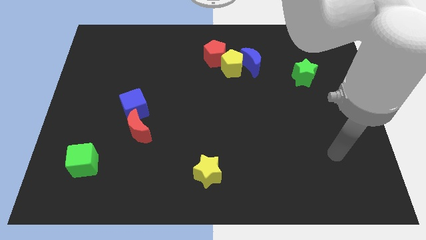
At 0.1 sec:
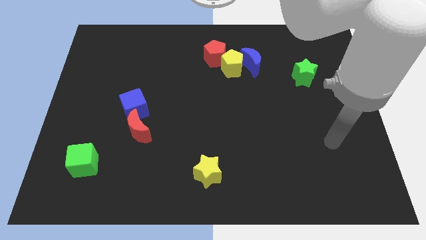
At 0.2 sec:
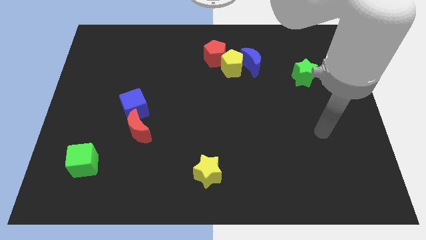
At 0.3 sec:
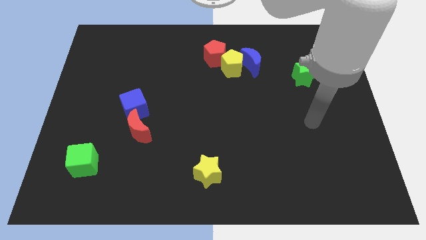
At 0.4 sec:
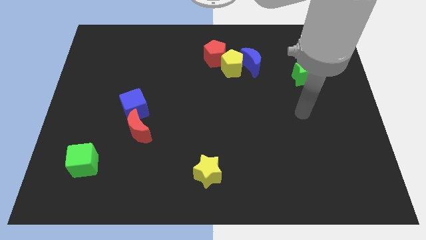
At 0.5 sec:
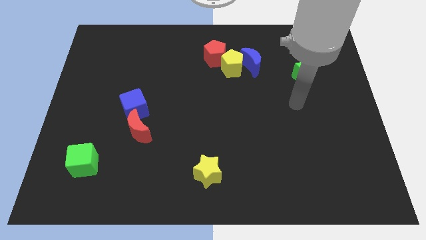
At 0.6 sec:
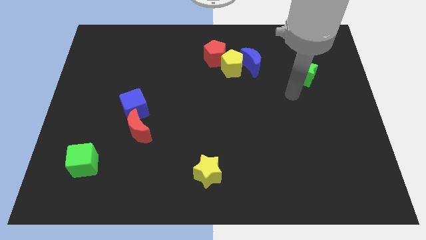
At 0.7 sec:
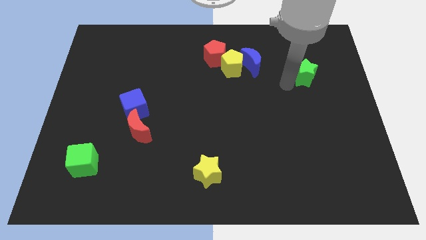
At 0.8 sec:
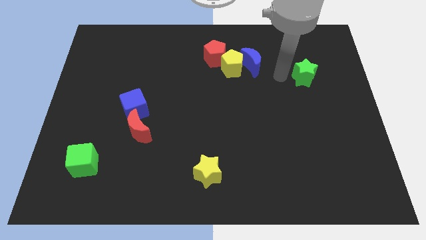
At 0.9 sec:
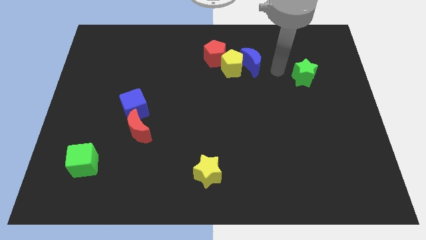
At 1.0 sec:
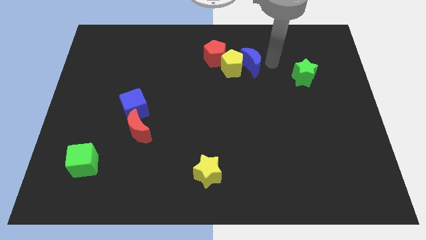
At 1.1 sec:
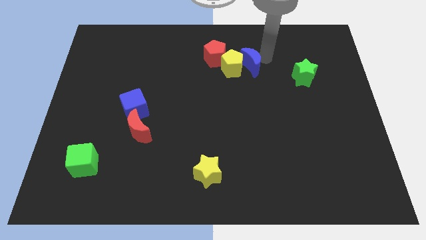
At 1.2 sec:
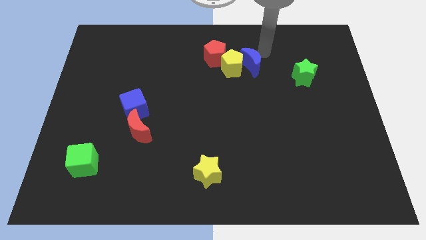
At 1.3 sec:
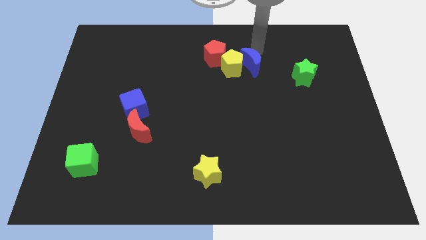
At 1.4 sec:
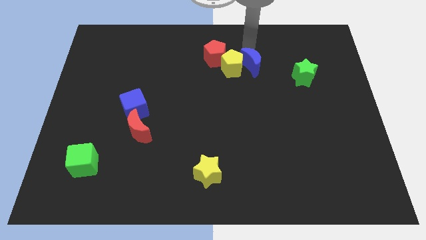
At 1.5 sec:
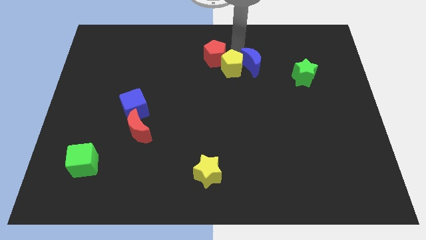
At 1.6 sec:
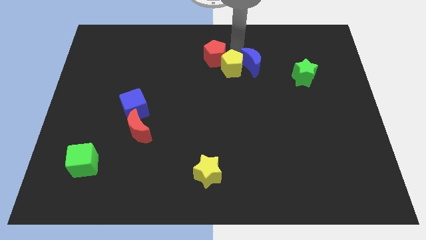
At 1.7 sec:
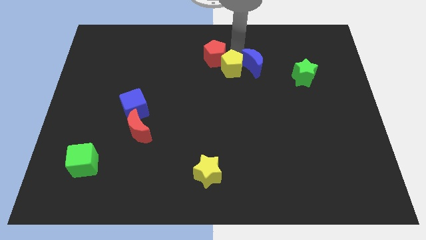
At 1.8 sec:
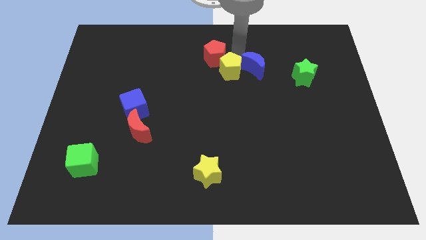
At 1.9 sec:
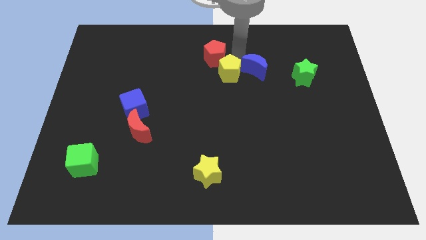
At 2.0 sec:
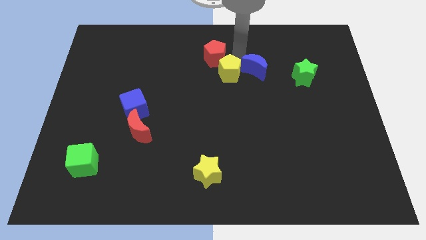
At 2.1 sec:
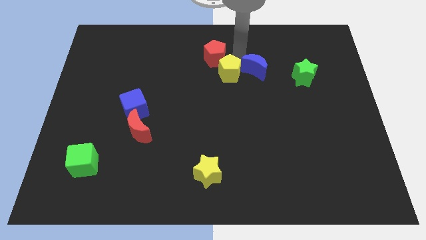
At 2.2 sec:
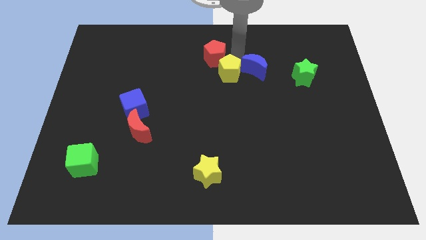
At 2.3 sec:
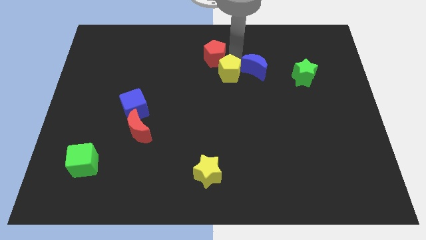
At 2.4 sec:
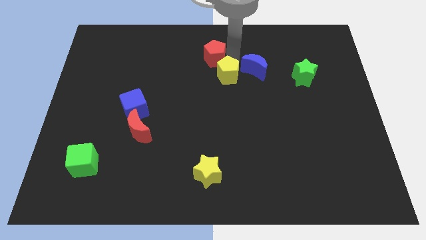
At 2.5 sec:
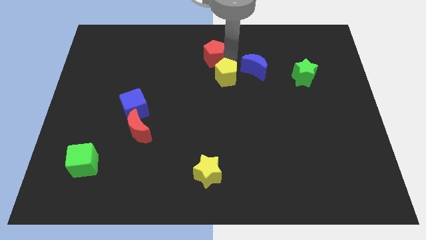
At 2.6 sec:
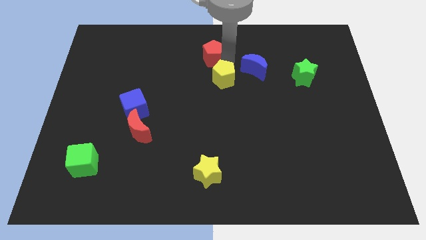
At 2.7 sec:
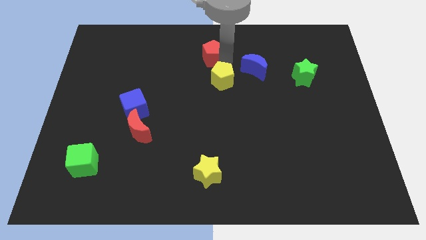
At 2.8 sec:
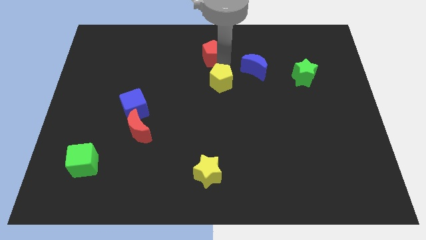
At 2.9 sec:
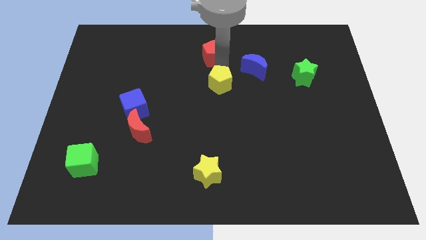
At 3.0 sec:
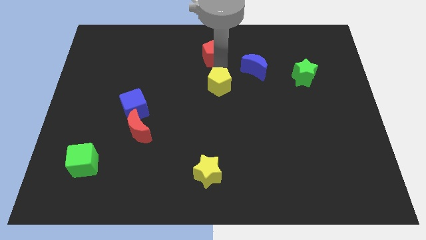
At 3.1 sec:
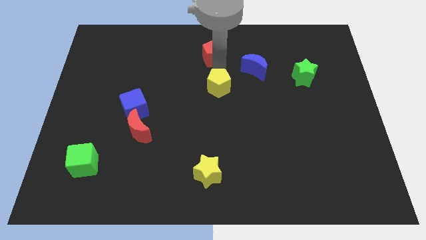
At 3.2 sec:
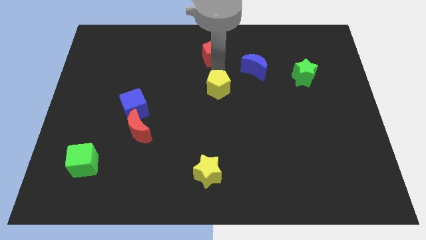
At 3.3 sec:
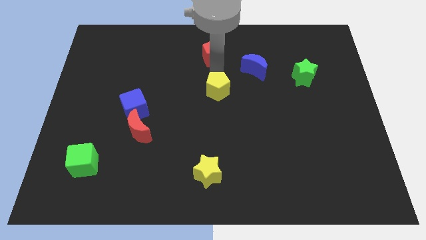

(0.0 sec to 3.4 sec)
separate the yellow pentagon from the blue moon and red pentagon

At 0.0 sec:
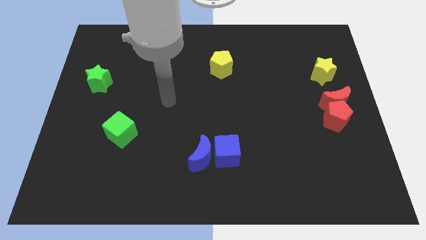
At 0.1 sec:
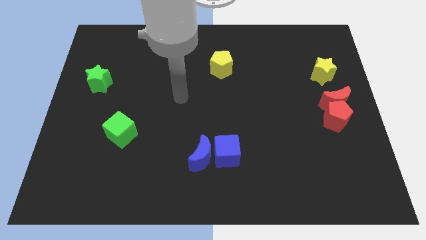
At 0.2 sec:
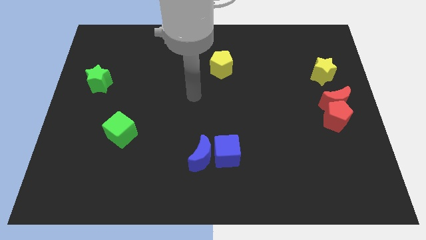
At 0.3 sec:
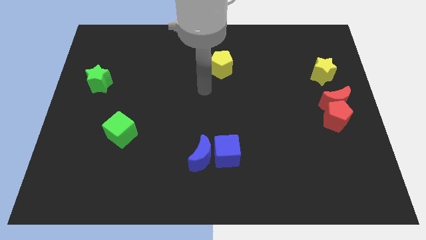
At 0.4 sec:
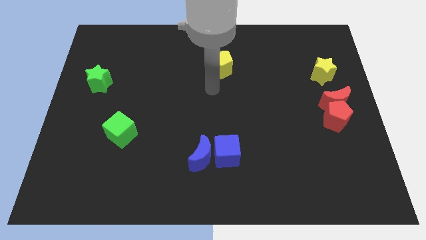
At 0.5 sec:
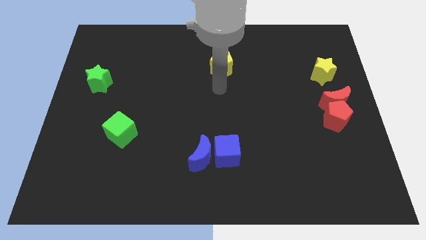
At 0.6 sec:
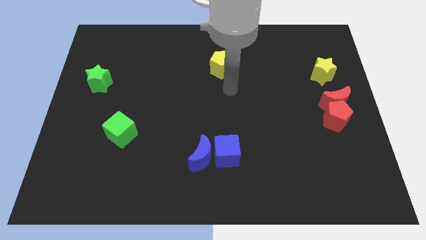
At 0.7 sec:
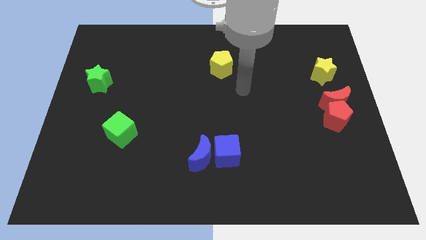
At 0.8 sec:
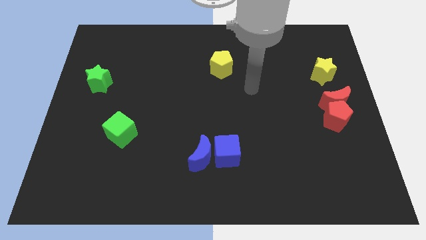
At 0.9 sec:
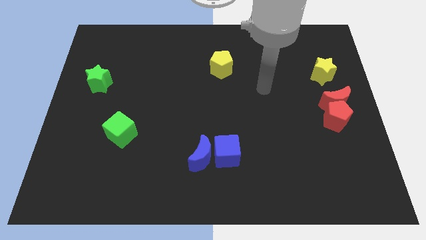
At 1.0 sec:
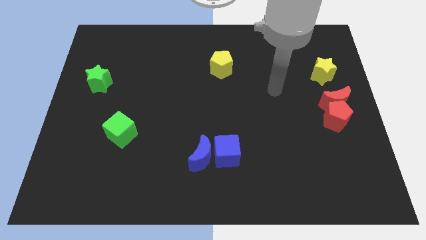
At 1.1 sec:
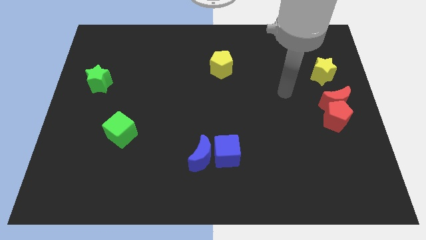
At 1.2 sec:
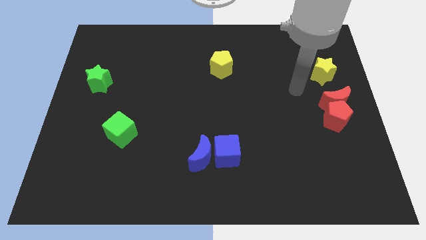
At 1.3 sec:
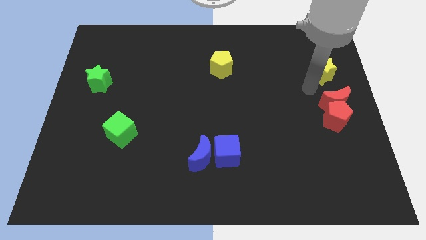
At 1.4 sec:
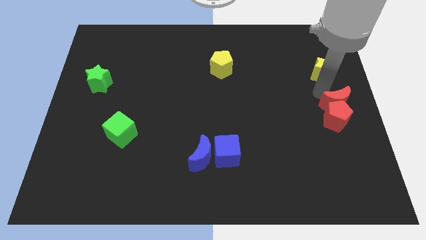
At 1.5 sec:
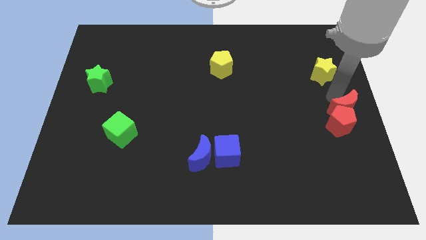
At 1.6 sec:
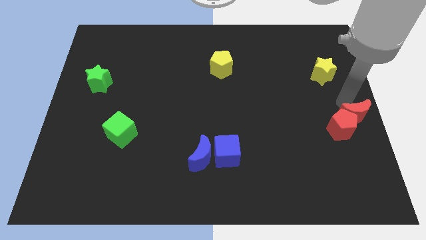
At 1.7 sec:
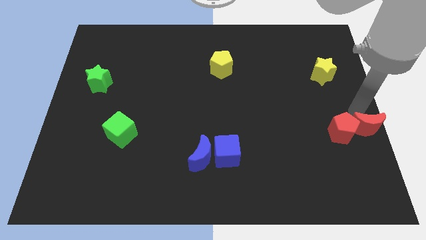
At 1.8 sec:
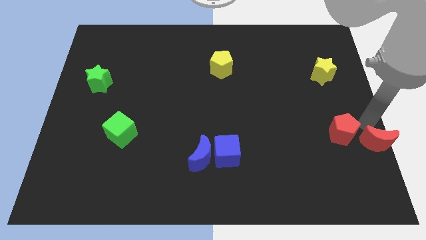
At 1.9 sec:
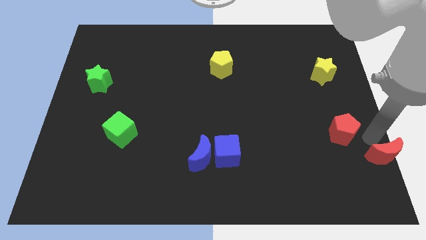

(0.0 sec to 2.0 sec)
pull the red pentagon apart from the red moon

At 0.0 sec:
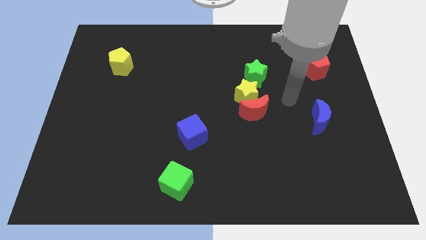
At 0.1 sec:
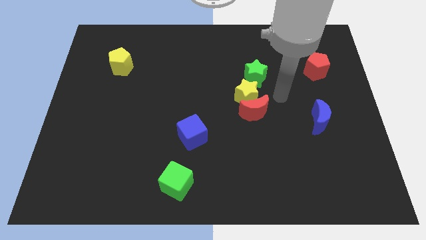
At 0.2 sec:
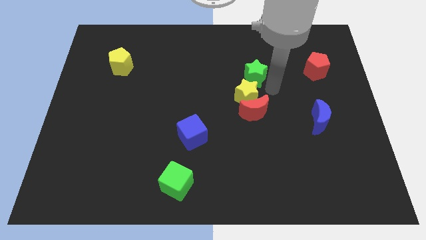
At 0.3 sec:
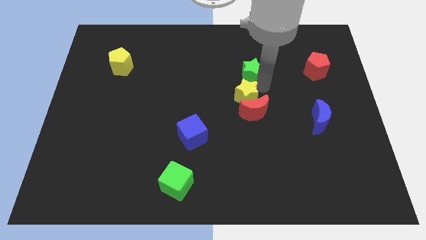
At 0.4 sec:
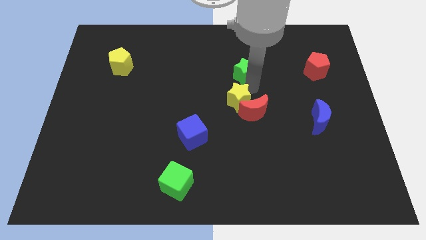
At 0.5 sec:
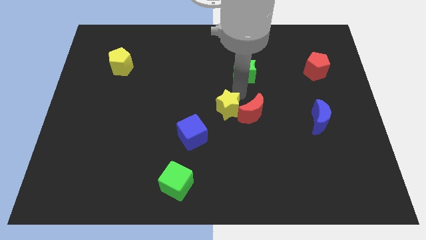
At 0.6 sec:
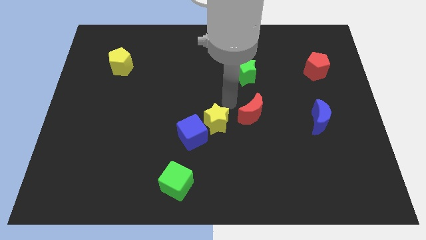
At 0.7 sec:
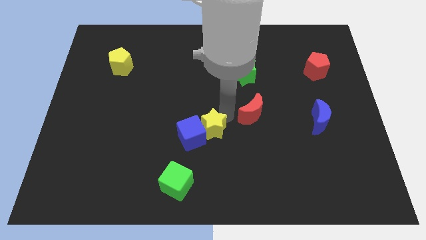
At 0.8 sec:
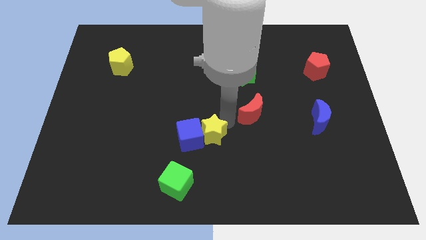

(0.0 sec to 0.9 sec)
separate the red moon from the yellow star

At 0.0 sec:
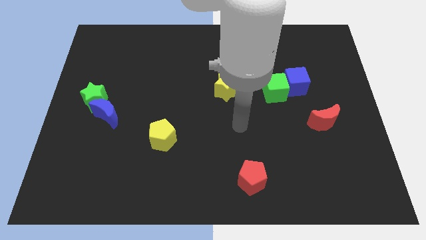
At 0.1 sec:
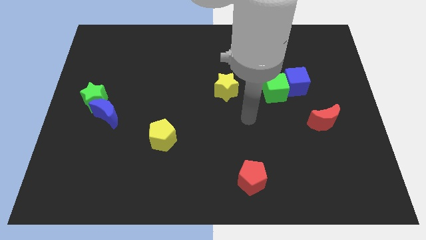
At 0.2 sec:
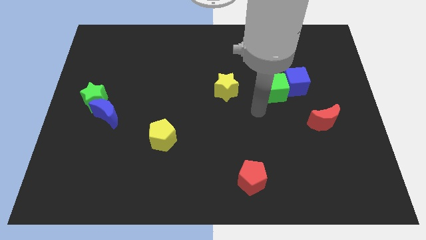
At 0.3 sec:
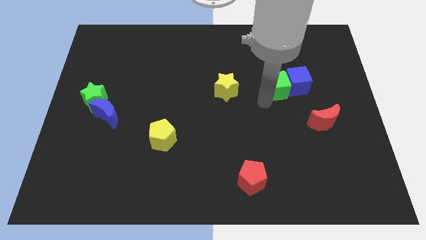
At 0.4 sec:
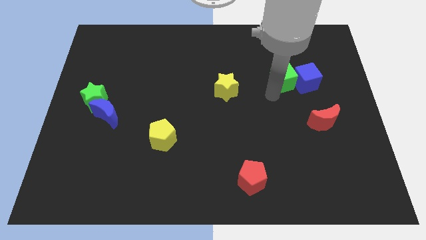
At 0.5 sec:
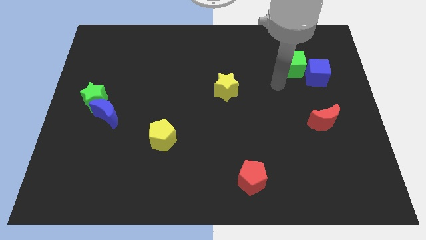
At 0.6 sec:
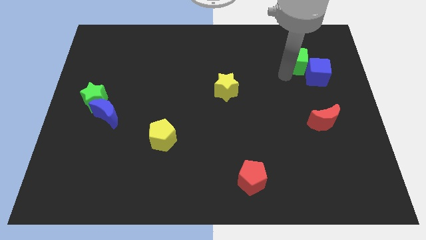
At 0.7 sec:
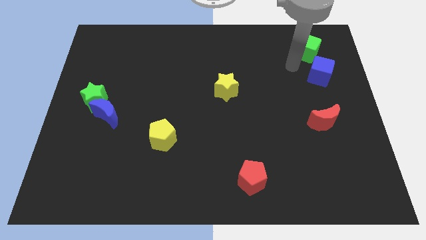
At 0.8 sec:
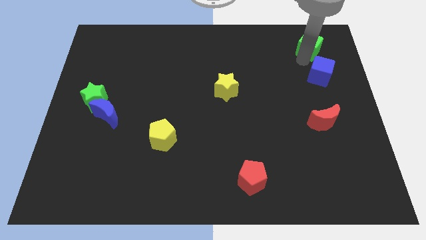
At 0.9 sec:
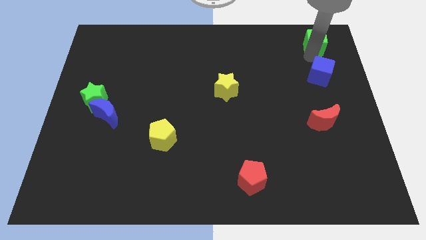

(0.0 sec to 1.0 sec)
move the blue cube away from the green cube

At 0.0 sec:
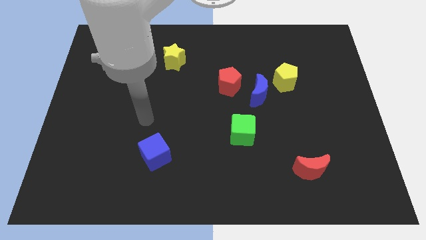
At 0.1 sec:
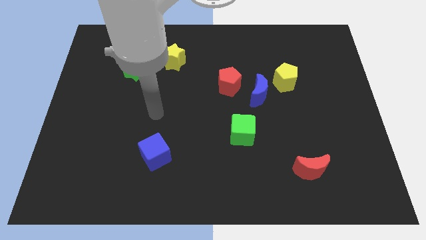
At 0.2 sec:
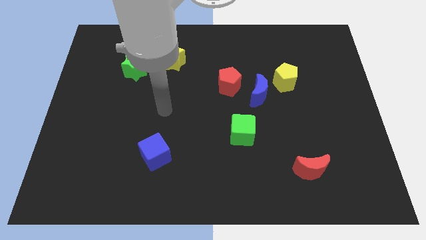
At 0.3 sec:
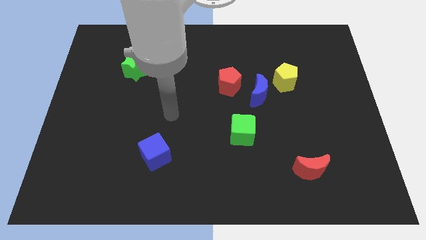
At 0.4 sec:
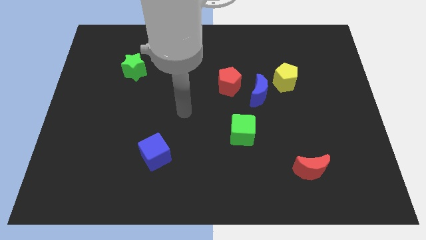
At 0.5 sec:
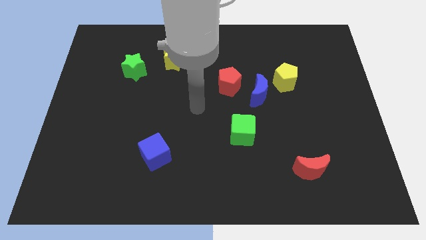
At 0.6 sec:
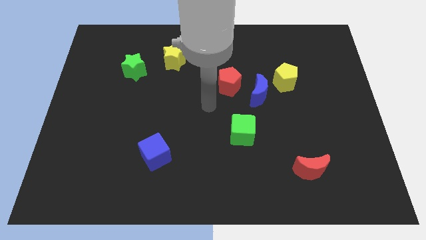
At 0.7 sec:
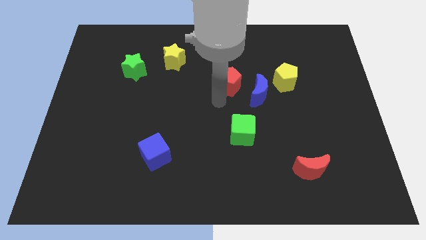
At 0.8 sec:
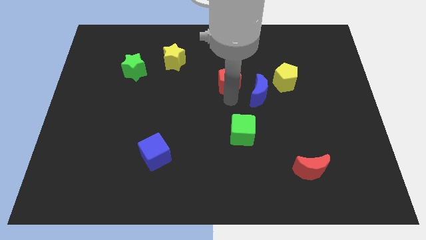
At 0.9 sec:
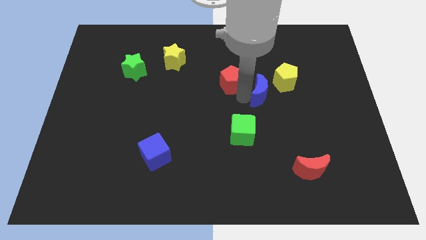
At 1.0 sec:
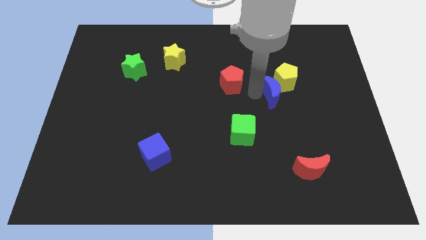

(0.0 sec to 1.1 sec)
separate the red pentagon from the blue moon

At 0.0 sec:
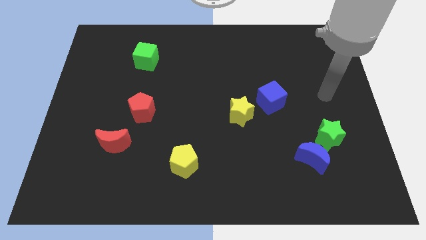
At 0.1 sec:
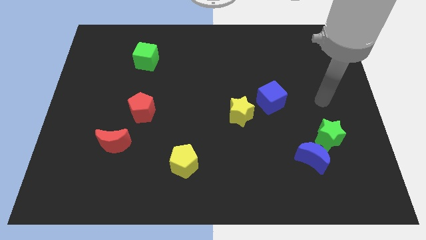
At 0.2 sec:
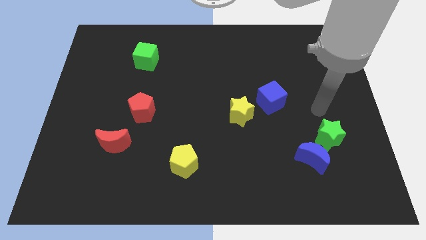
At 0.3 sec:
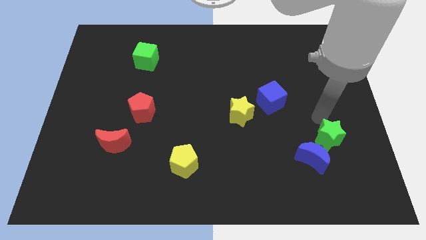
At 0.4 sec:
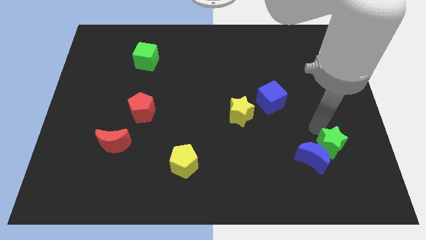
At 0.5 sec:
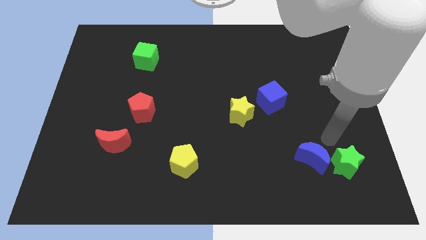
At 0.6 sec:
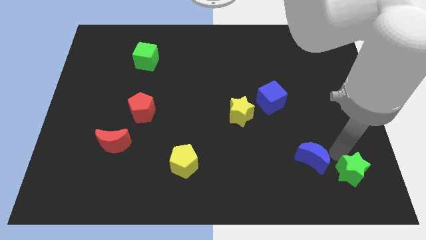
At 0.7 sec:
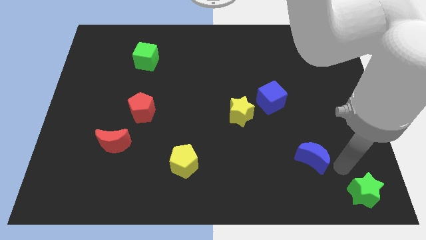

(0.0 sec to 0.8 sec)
separate the blue moon from the green star
